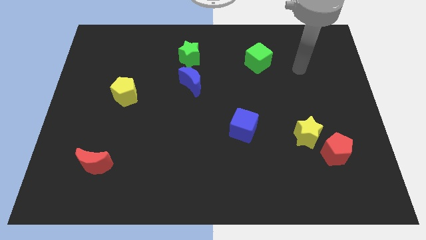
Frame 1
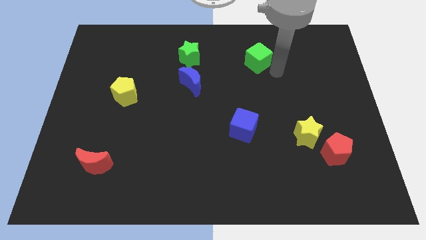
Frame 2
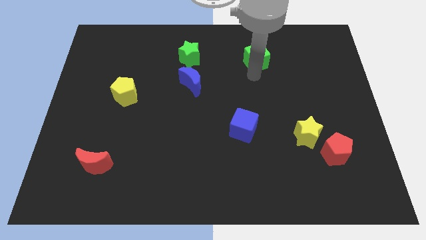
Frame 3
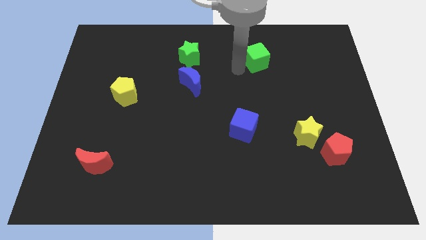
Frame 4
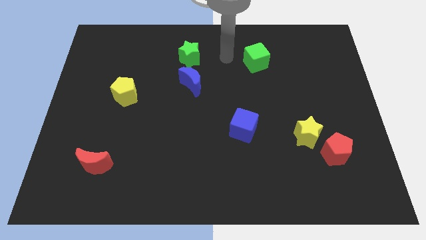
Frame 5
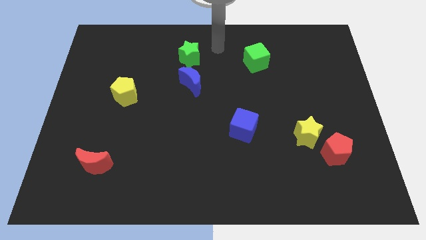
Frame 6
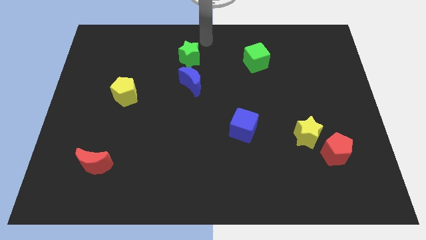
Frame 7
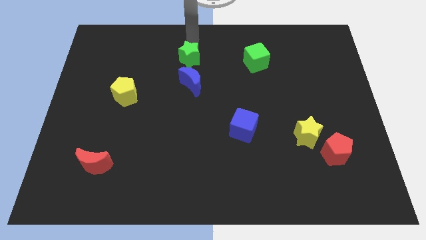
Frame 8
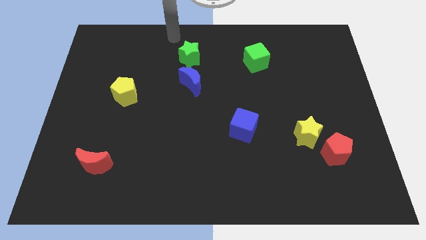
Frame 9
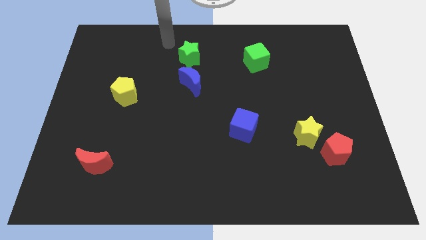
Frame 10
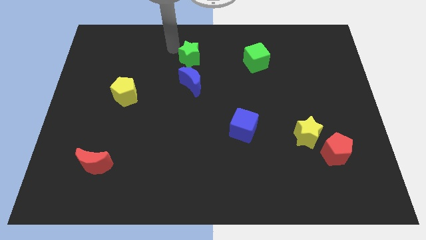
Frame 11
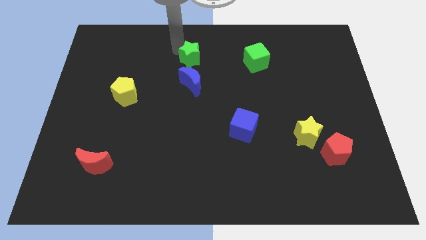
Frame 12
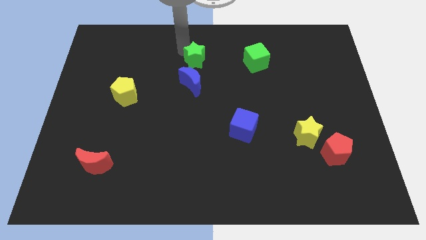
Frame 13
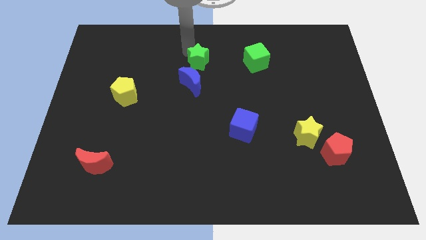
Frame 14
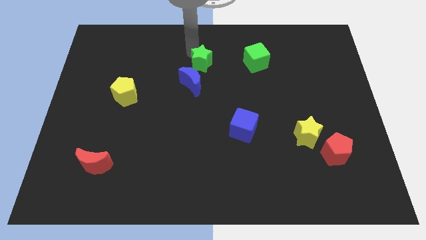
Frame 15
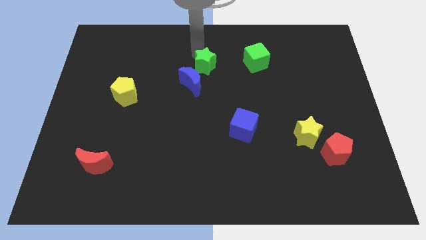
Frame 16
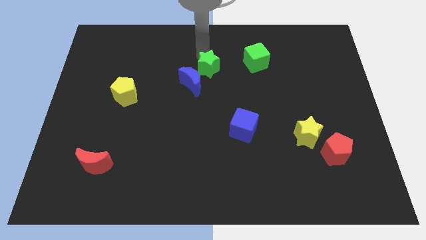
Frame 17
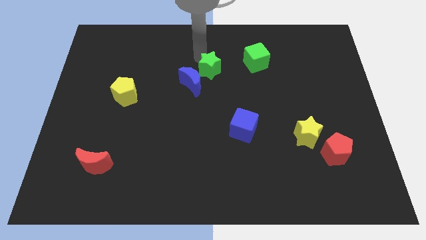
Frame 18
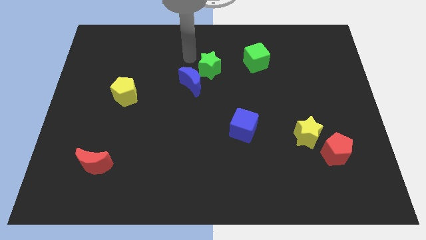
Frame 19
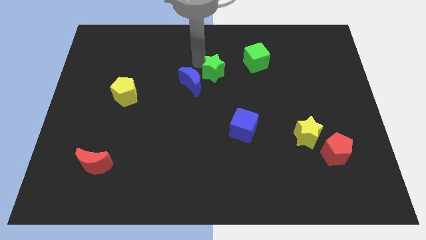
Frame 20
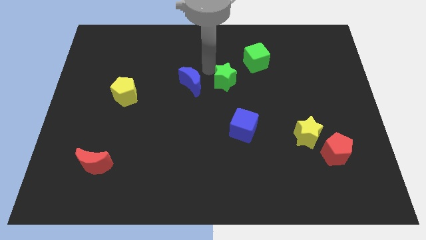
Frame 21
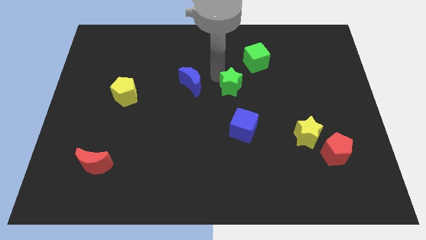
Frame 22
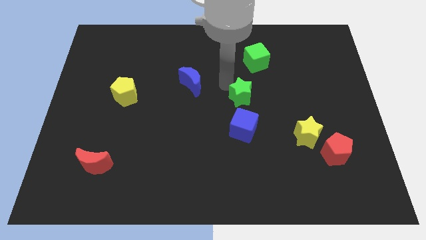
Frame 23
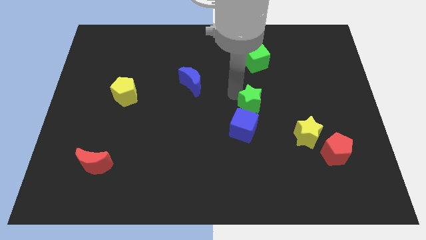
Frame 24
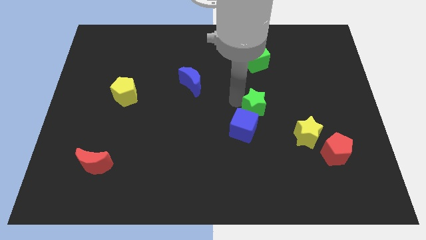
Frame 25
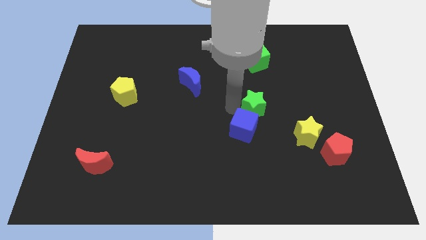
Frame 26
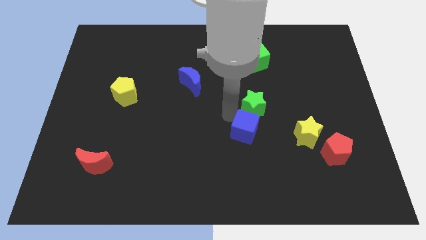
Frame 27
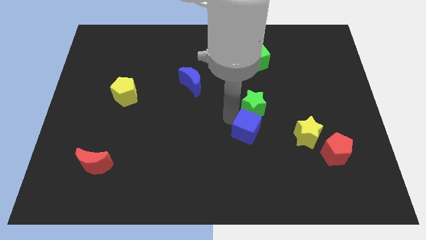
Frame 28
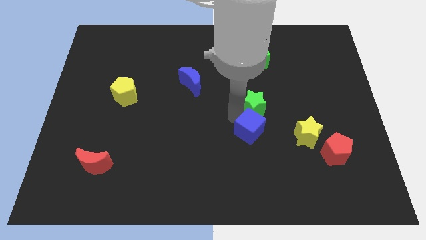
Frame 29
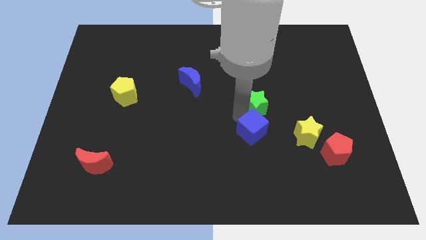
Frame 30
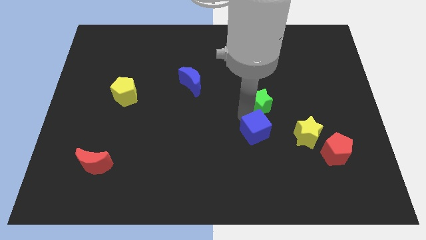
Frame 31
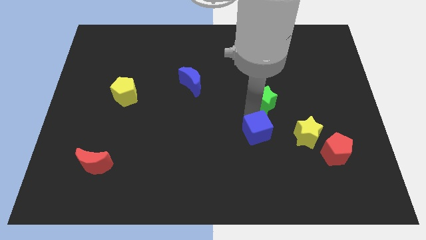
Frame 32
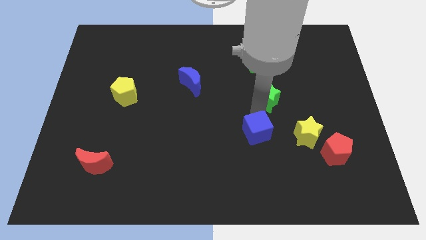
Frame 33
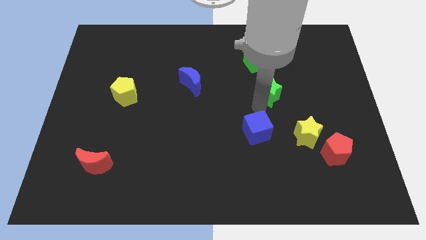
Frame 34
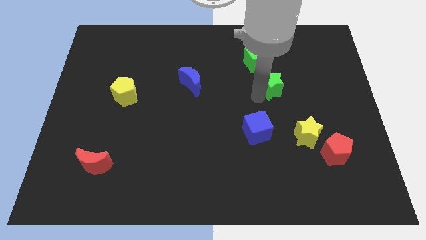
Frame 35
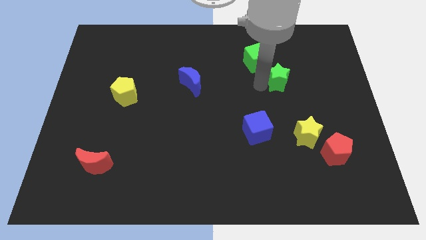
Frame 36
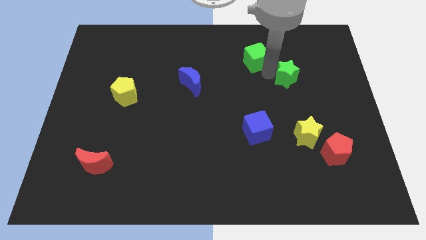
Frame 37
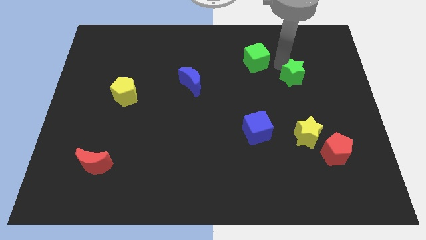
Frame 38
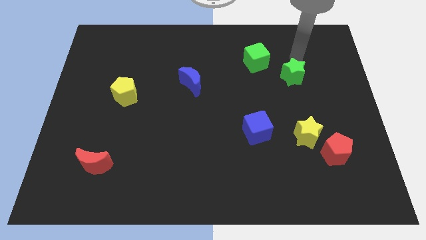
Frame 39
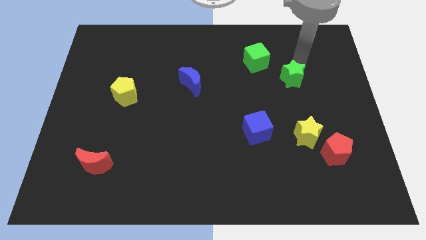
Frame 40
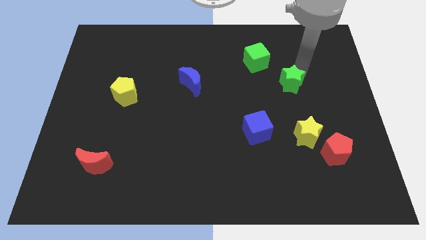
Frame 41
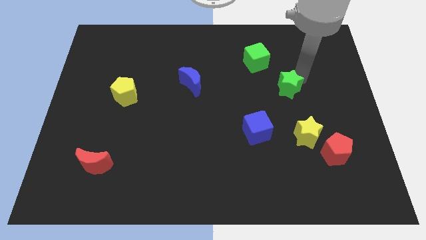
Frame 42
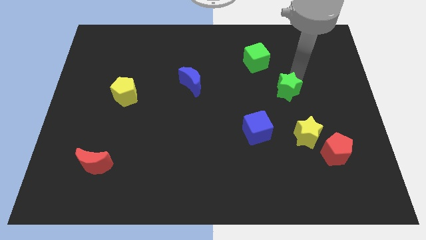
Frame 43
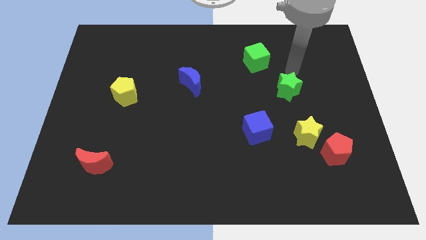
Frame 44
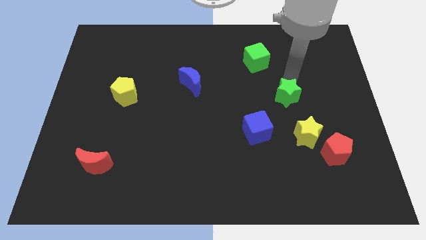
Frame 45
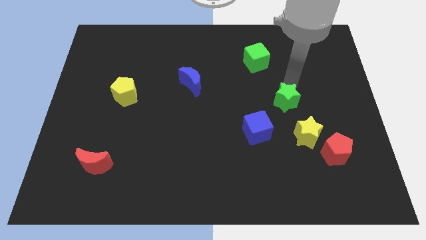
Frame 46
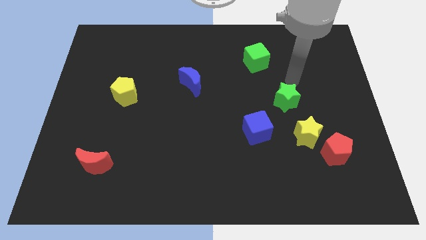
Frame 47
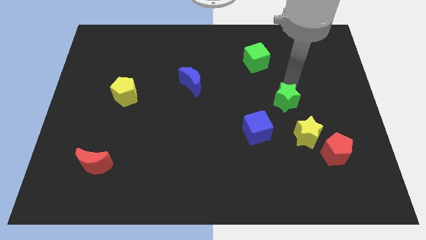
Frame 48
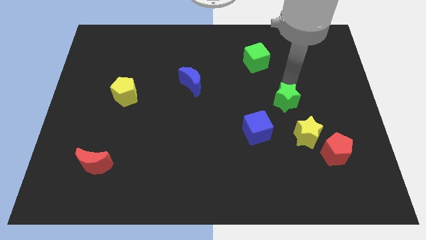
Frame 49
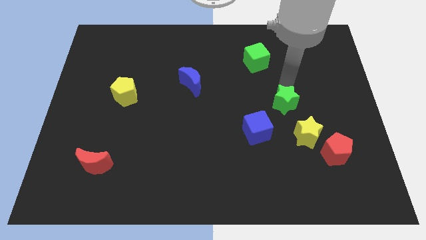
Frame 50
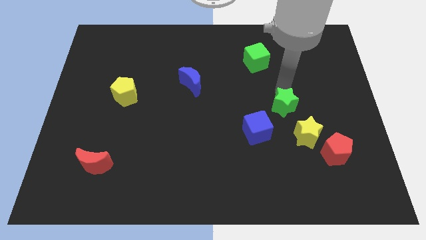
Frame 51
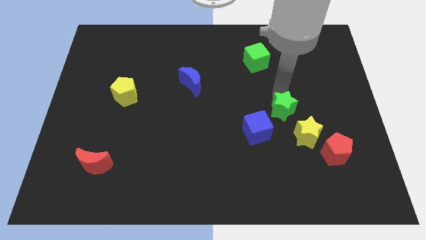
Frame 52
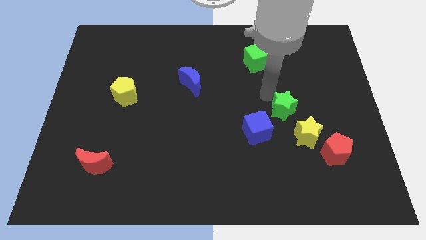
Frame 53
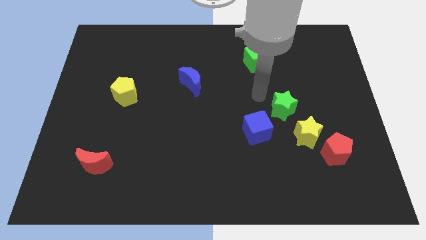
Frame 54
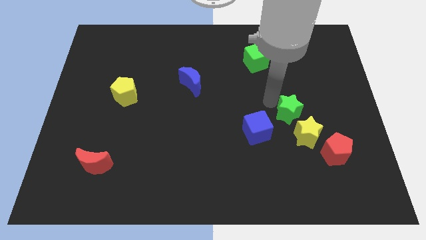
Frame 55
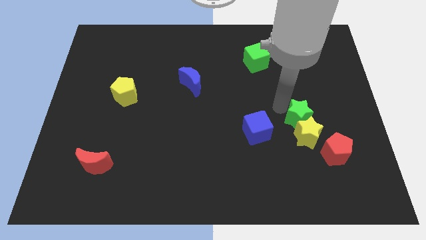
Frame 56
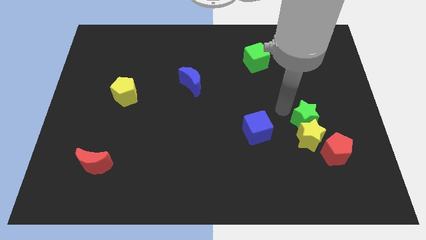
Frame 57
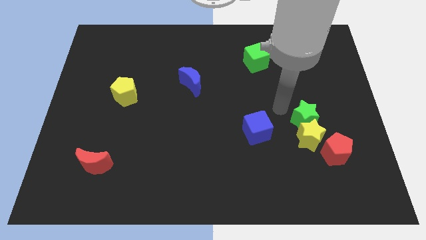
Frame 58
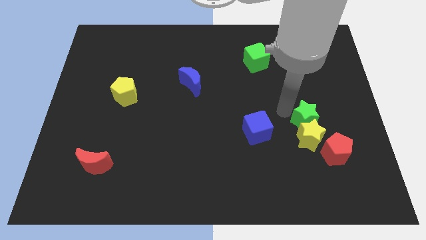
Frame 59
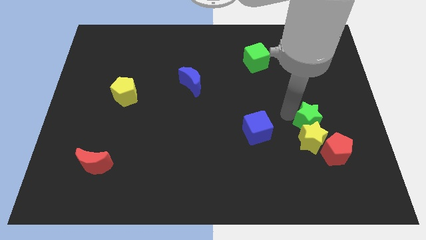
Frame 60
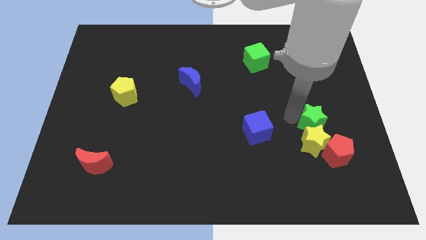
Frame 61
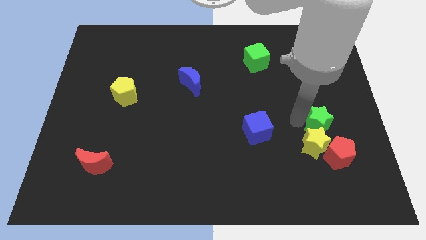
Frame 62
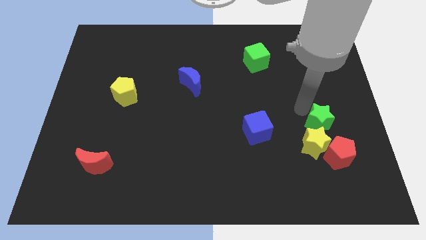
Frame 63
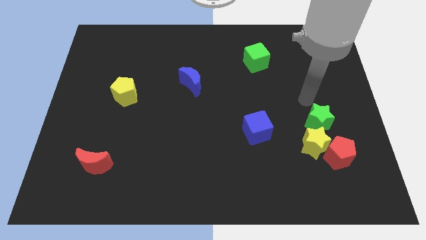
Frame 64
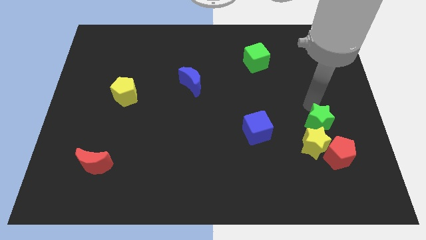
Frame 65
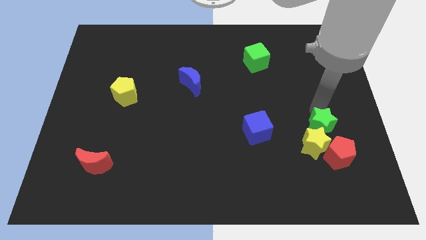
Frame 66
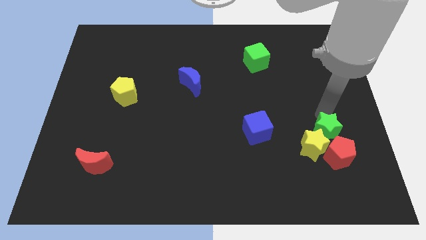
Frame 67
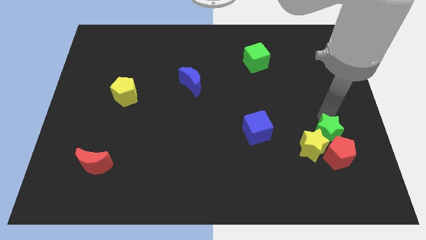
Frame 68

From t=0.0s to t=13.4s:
push the green star next to the red pentagon
